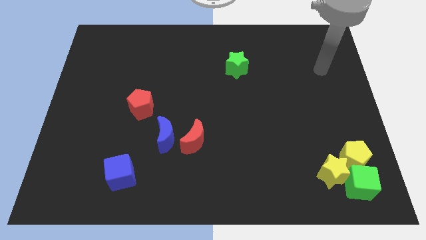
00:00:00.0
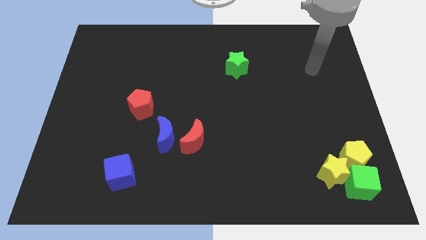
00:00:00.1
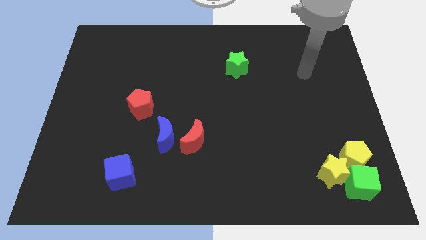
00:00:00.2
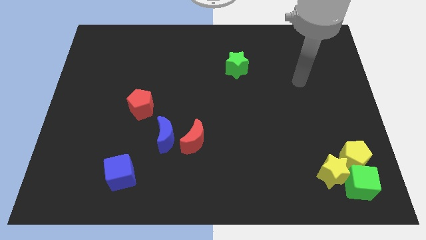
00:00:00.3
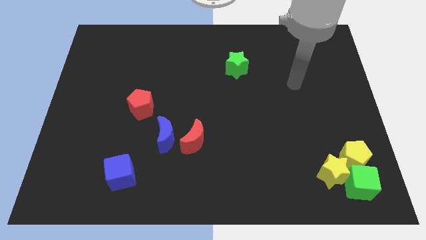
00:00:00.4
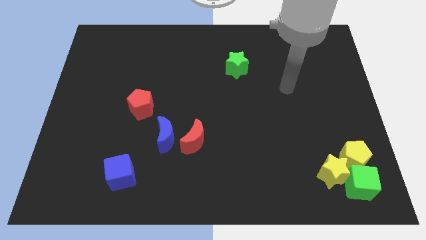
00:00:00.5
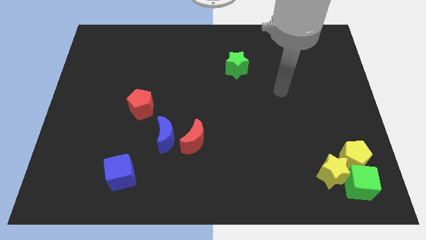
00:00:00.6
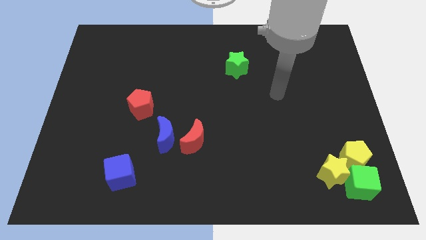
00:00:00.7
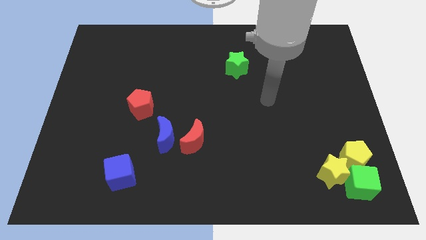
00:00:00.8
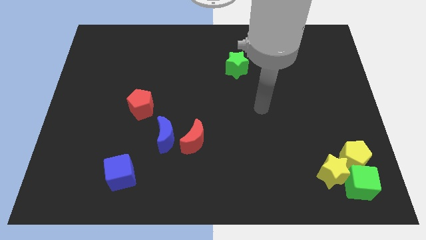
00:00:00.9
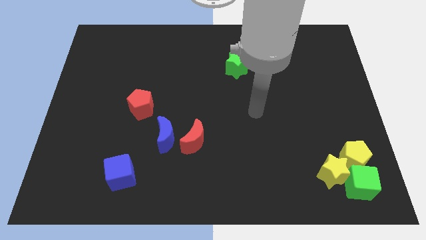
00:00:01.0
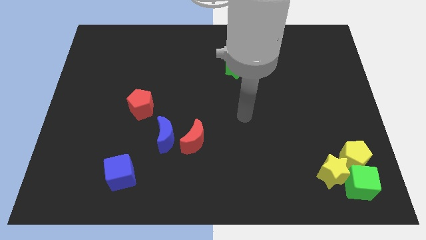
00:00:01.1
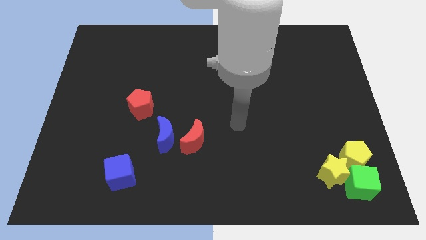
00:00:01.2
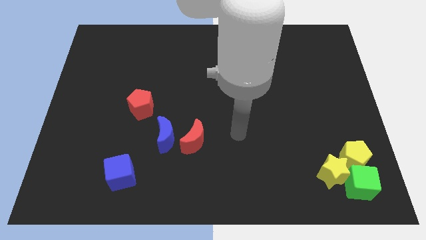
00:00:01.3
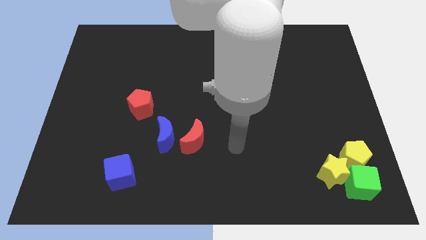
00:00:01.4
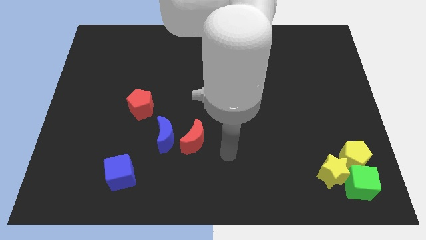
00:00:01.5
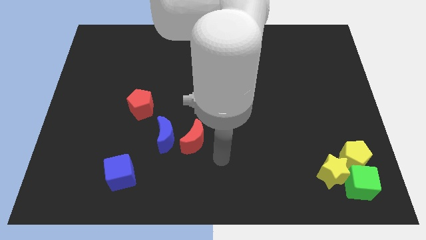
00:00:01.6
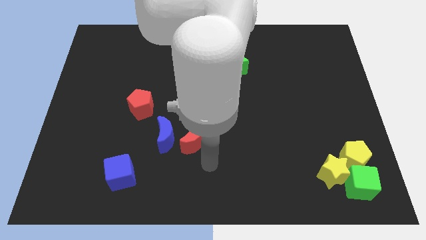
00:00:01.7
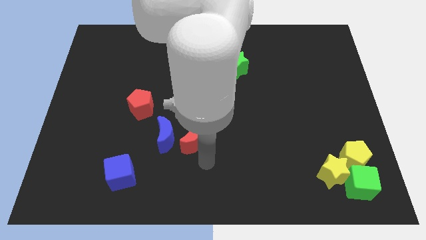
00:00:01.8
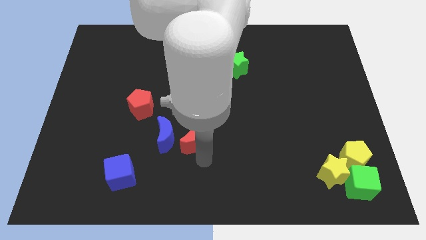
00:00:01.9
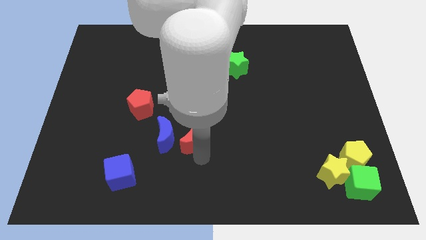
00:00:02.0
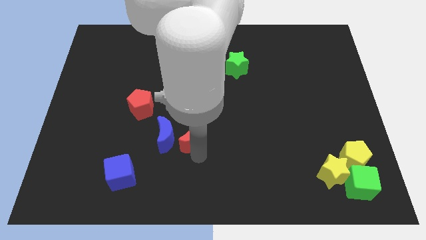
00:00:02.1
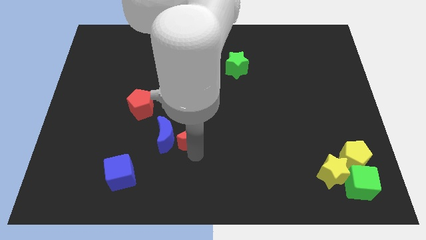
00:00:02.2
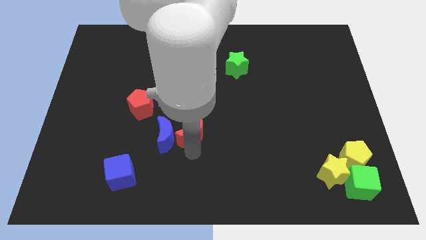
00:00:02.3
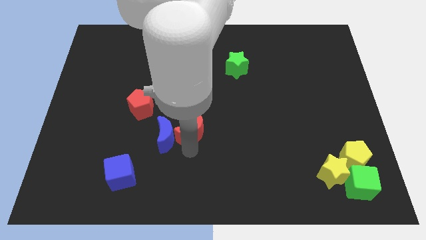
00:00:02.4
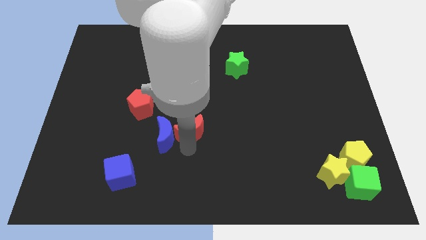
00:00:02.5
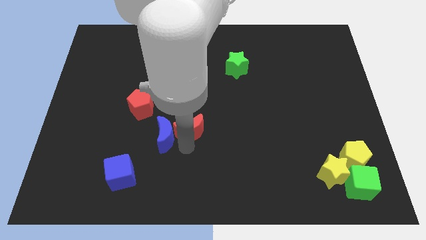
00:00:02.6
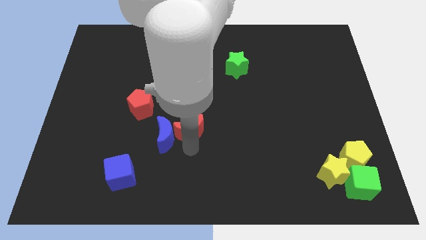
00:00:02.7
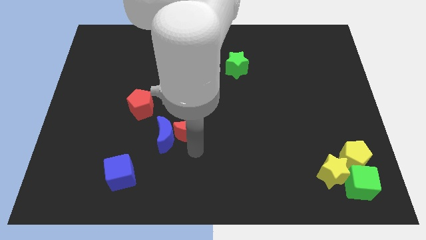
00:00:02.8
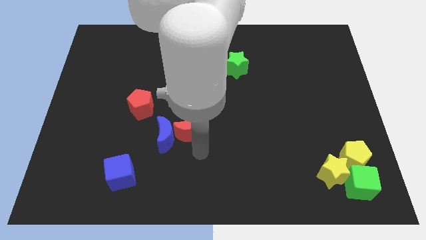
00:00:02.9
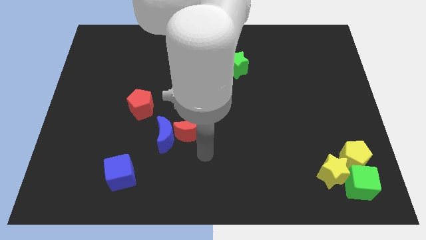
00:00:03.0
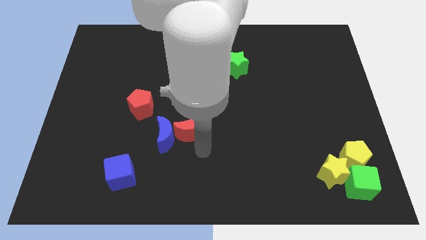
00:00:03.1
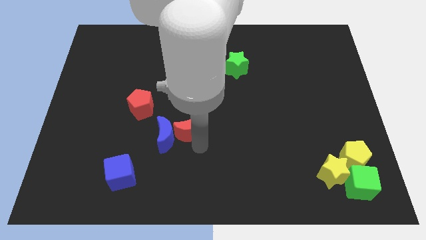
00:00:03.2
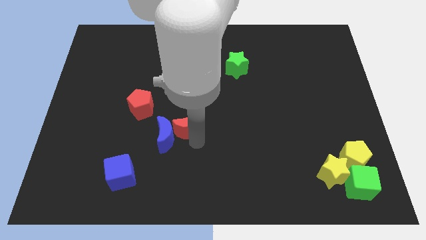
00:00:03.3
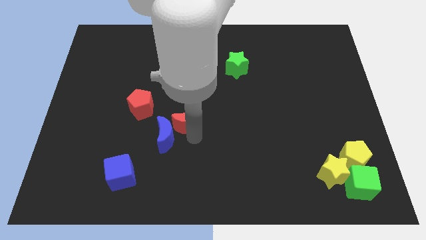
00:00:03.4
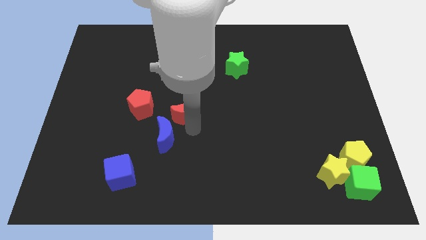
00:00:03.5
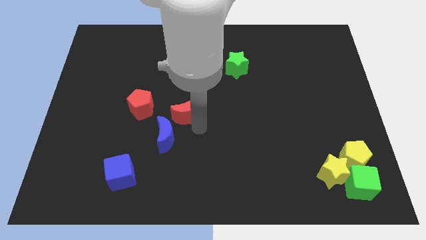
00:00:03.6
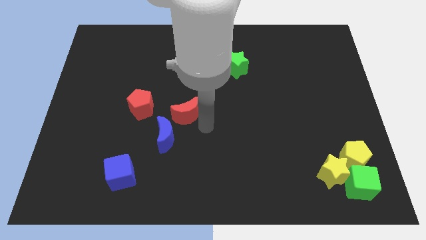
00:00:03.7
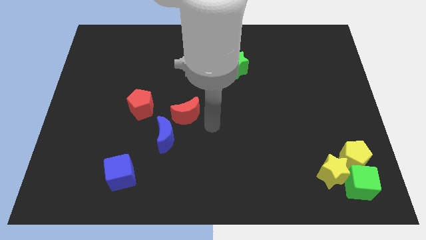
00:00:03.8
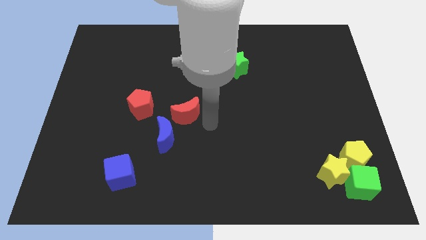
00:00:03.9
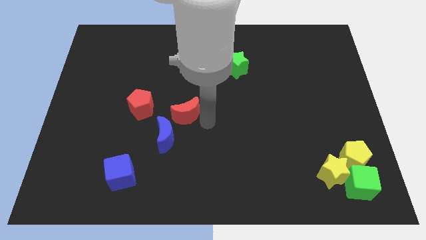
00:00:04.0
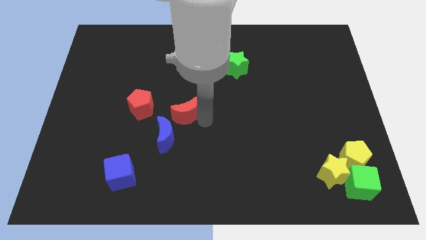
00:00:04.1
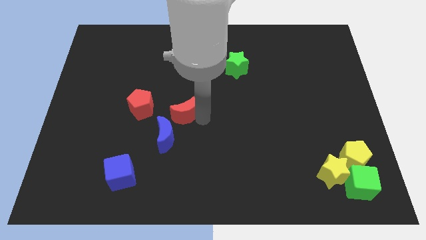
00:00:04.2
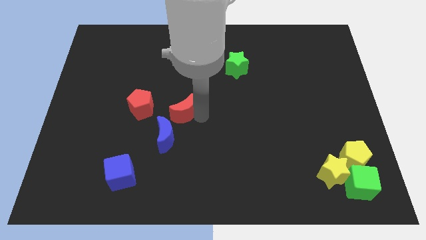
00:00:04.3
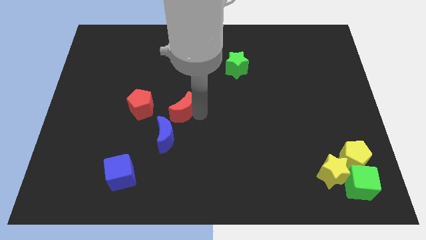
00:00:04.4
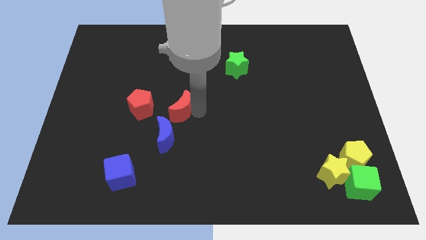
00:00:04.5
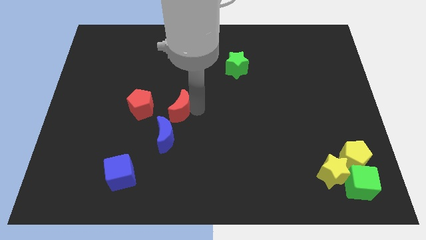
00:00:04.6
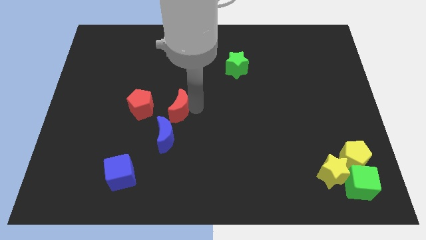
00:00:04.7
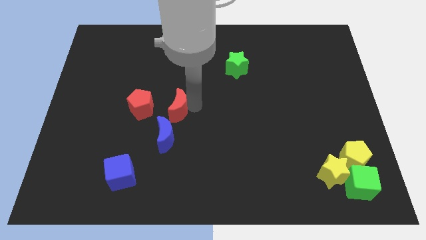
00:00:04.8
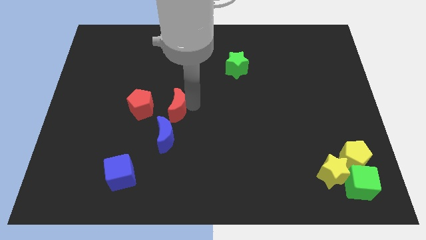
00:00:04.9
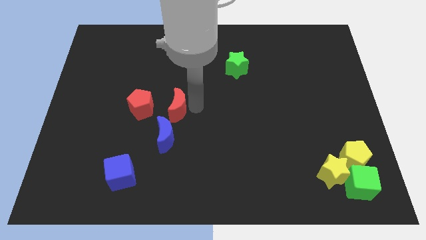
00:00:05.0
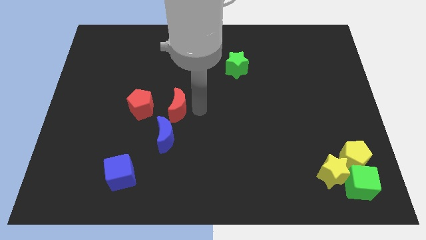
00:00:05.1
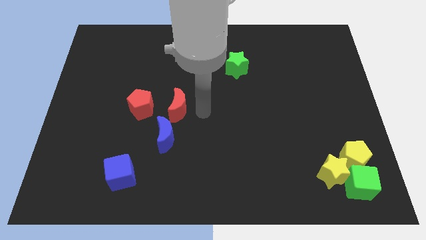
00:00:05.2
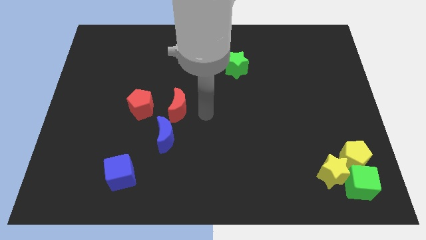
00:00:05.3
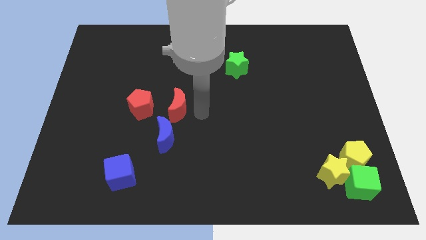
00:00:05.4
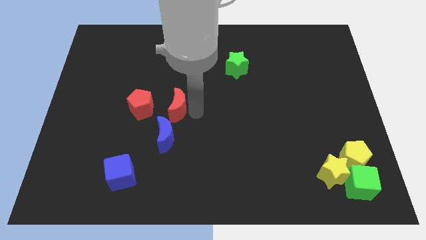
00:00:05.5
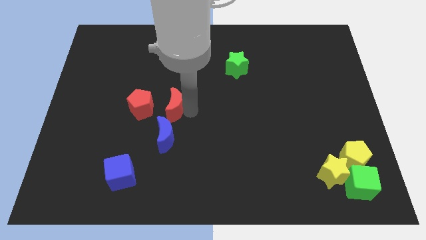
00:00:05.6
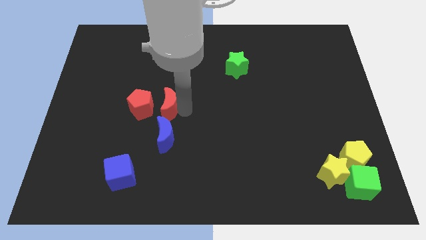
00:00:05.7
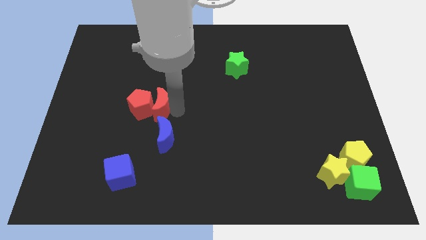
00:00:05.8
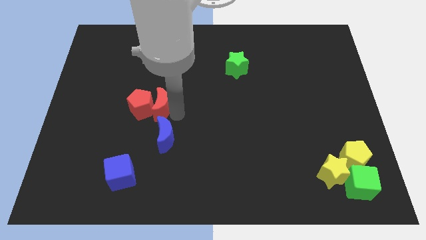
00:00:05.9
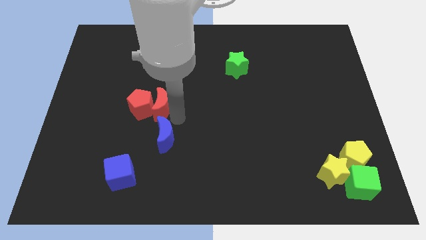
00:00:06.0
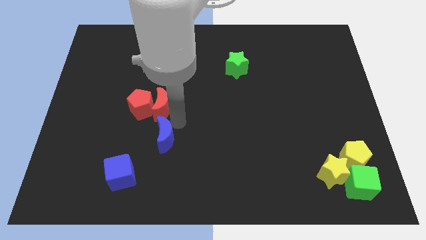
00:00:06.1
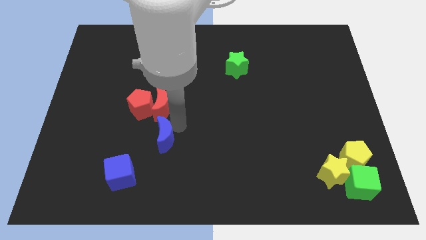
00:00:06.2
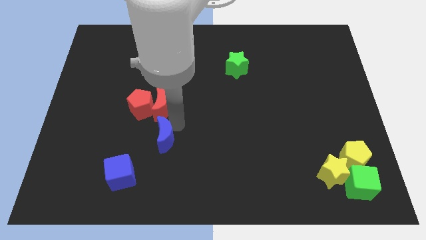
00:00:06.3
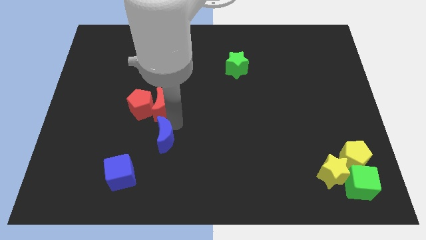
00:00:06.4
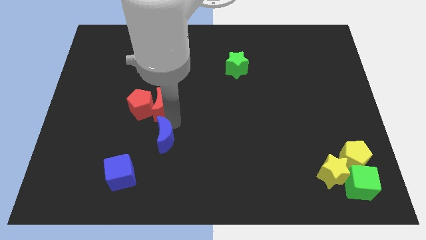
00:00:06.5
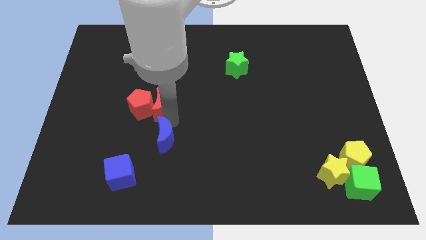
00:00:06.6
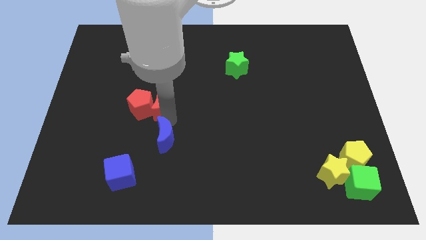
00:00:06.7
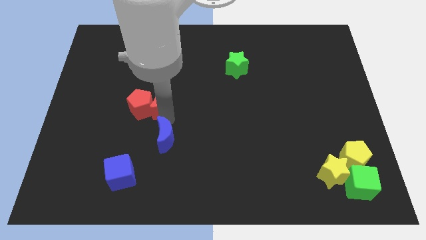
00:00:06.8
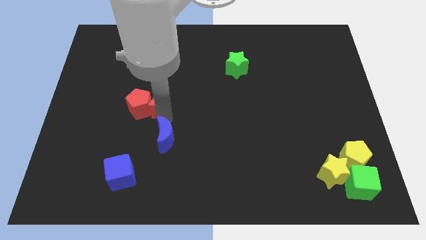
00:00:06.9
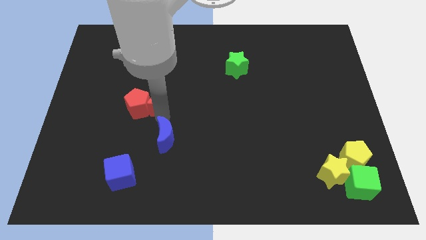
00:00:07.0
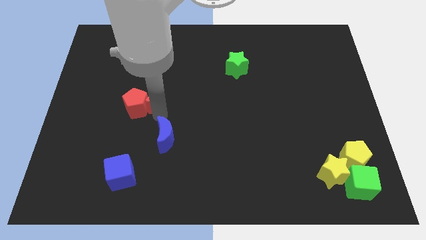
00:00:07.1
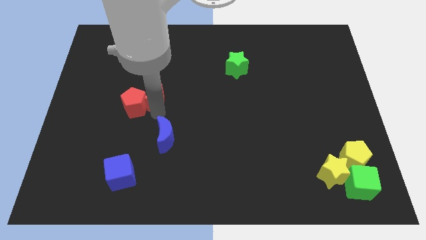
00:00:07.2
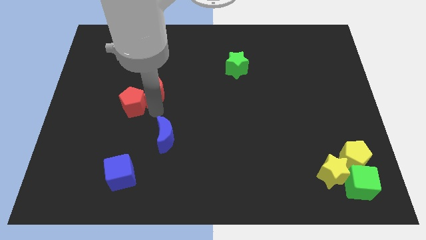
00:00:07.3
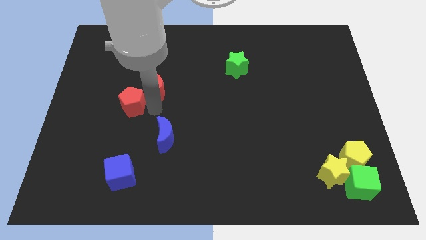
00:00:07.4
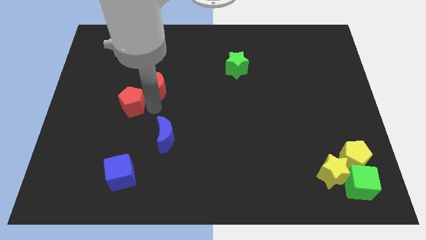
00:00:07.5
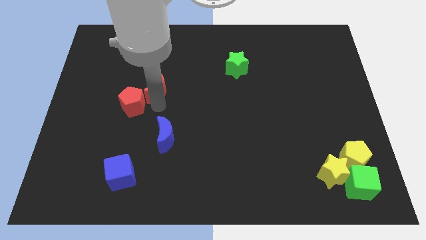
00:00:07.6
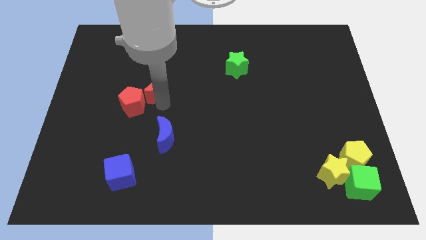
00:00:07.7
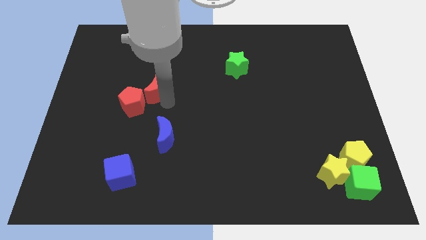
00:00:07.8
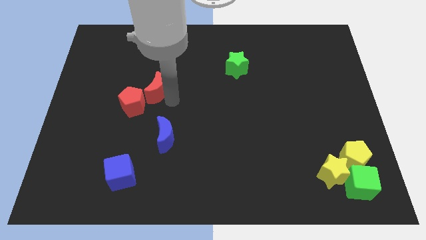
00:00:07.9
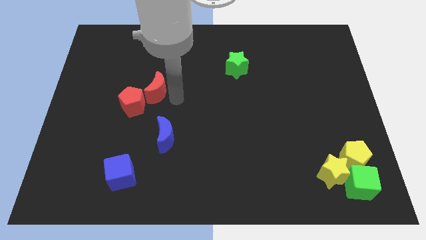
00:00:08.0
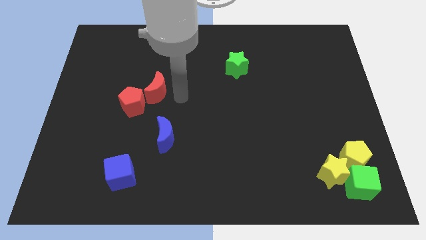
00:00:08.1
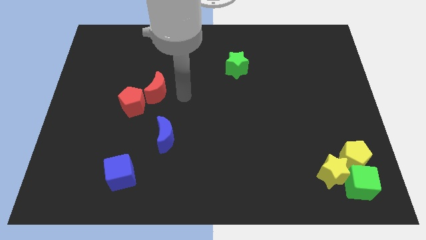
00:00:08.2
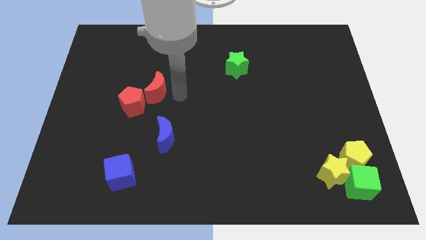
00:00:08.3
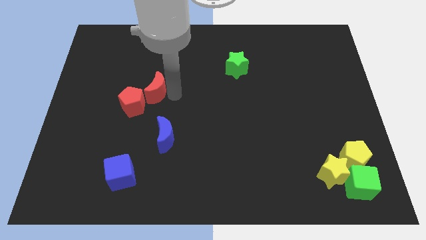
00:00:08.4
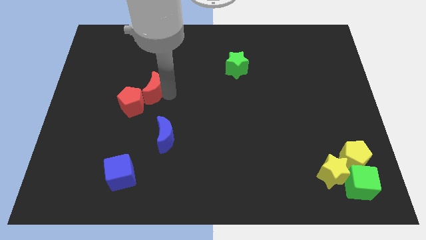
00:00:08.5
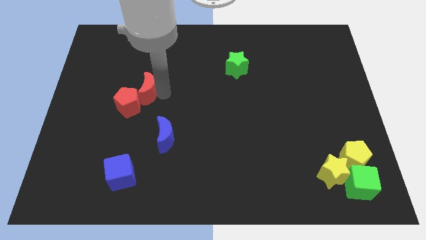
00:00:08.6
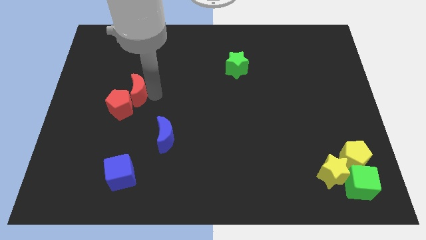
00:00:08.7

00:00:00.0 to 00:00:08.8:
move the red moon diagonally up and left
